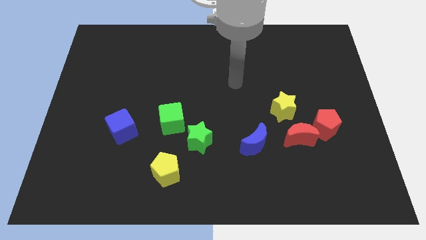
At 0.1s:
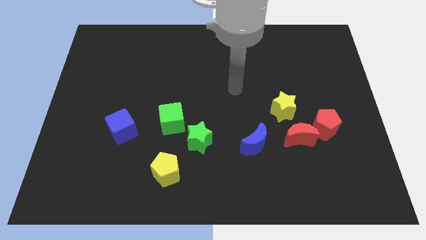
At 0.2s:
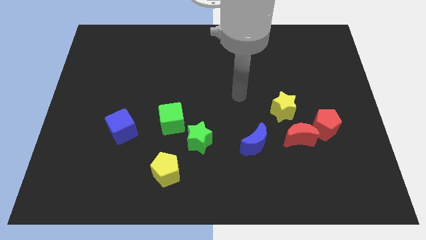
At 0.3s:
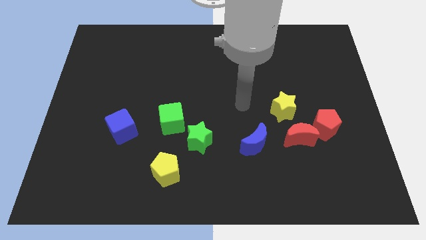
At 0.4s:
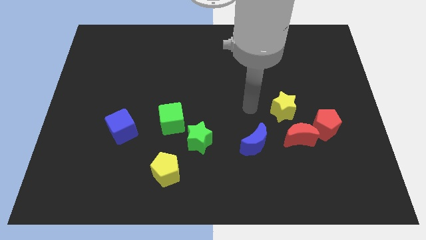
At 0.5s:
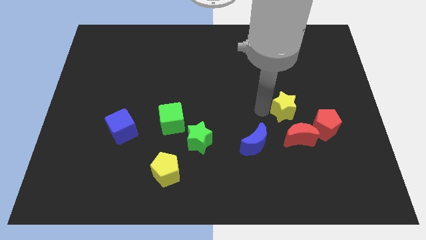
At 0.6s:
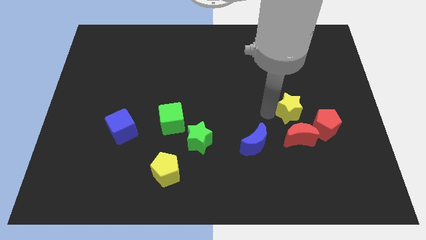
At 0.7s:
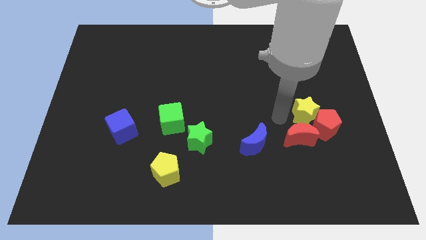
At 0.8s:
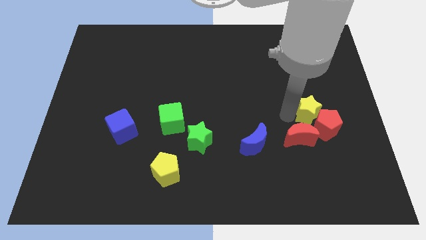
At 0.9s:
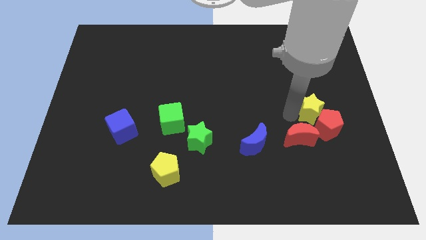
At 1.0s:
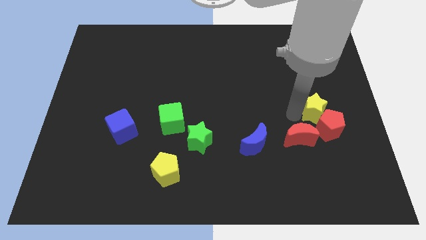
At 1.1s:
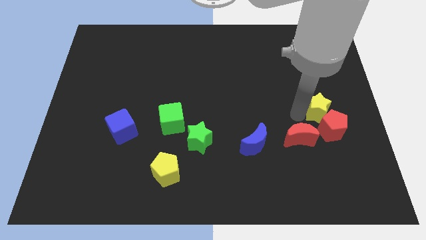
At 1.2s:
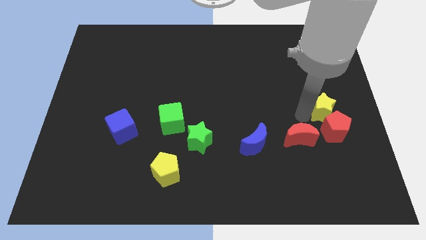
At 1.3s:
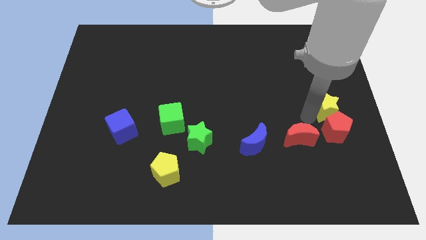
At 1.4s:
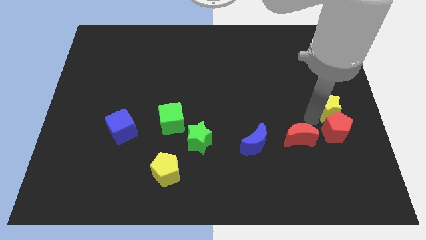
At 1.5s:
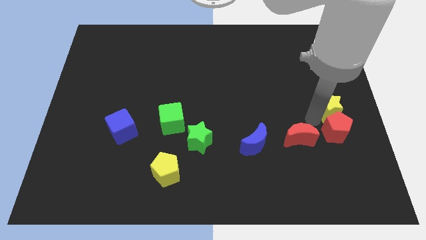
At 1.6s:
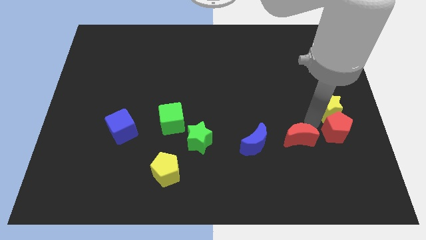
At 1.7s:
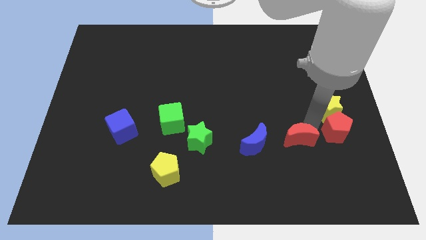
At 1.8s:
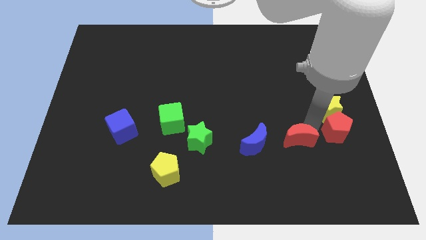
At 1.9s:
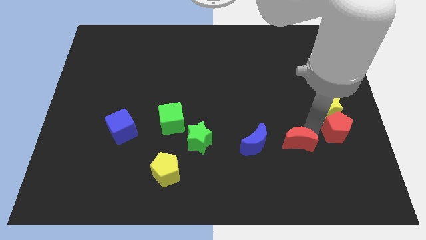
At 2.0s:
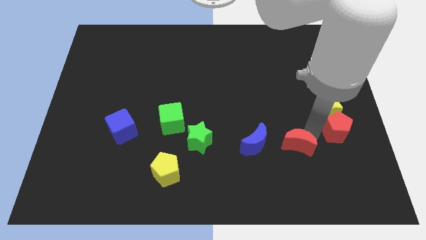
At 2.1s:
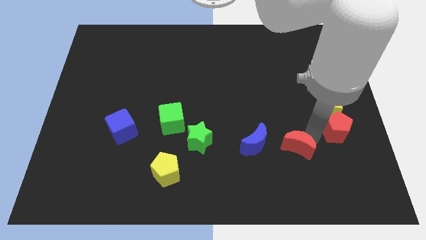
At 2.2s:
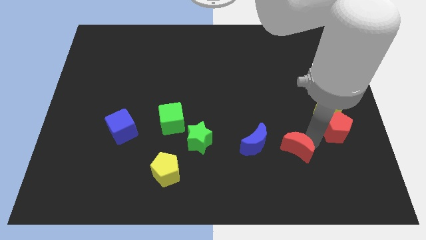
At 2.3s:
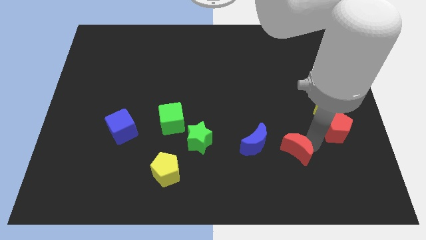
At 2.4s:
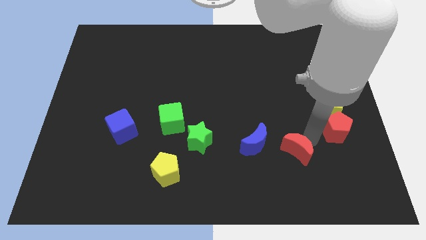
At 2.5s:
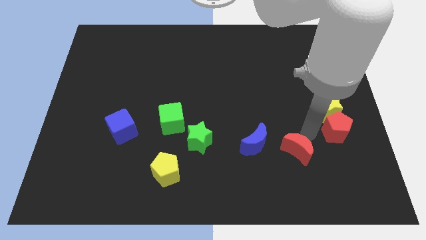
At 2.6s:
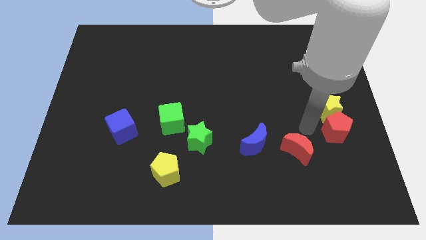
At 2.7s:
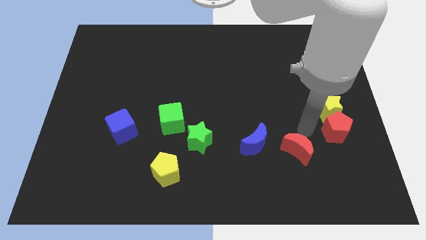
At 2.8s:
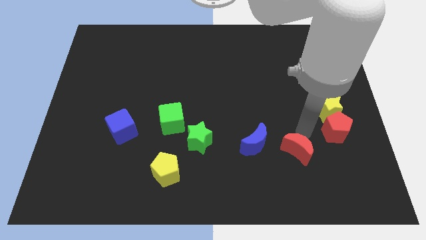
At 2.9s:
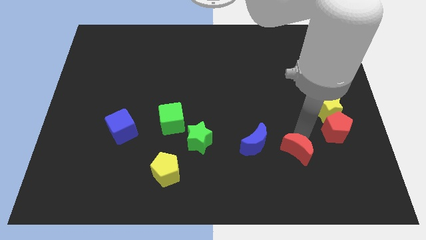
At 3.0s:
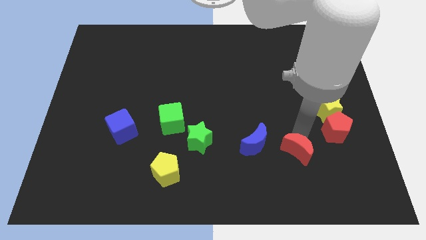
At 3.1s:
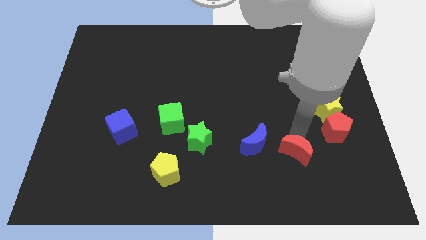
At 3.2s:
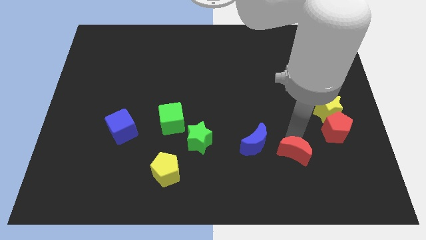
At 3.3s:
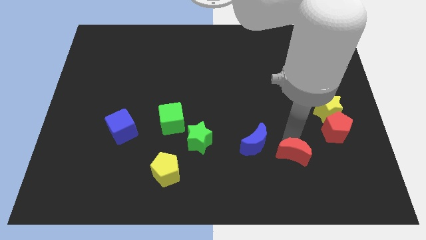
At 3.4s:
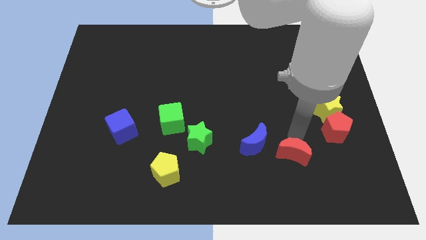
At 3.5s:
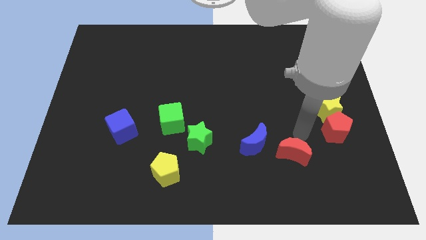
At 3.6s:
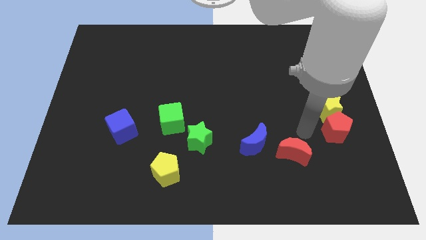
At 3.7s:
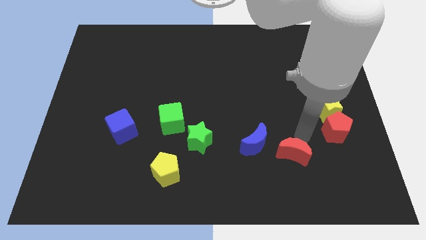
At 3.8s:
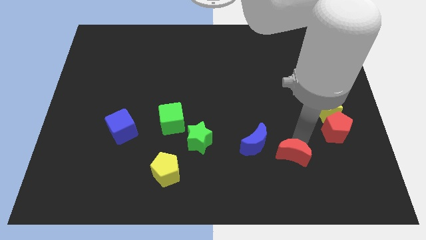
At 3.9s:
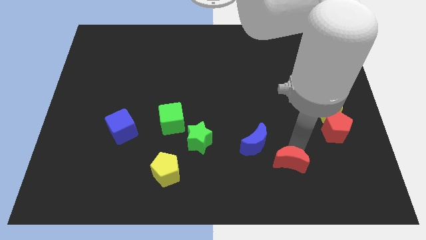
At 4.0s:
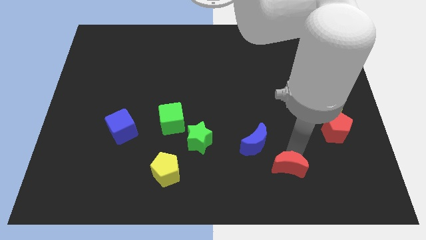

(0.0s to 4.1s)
separate the red moon from the red pentagon, yellow star, and blue moon

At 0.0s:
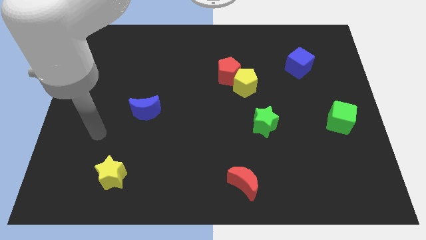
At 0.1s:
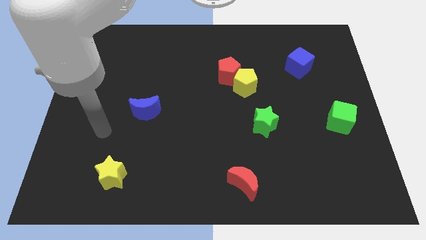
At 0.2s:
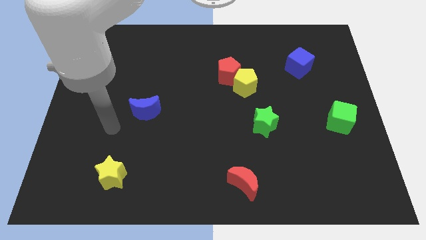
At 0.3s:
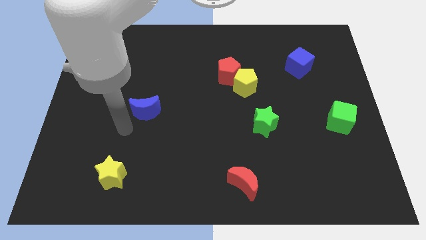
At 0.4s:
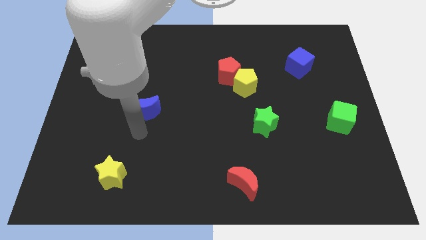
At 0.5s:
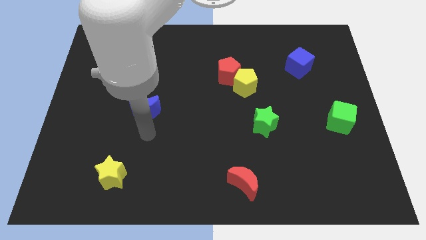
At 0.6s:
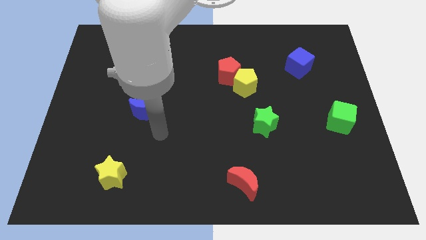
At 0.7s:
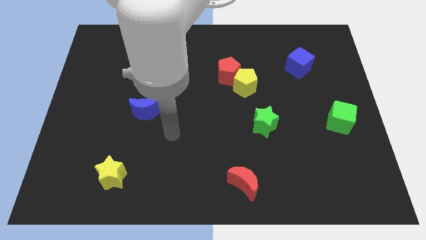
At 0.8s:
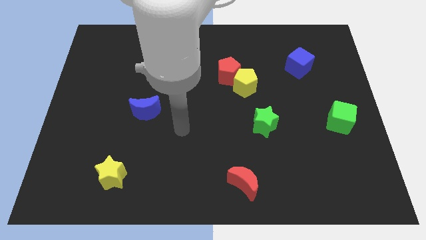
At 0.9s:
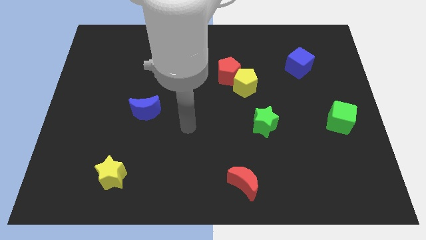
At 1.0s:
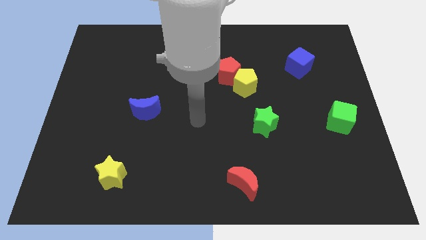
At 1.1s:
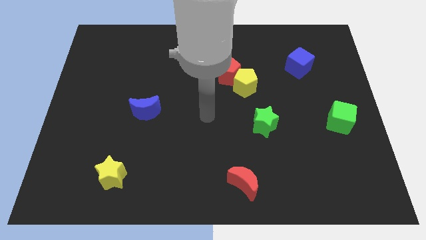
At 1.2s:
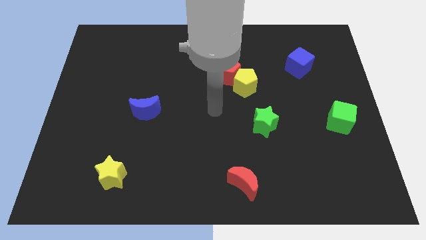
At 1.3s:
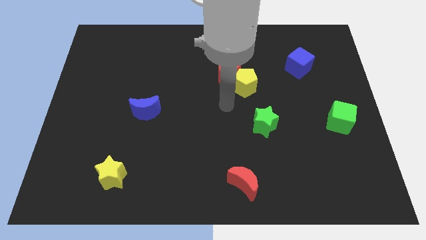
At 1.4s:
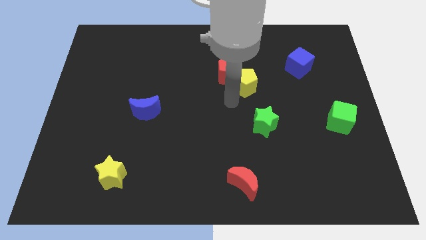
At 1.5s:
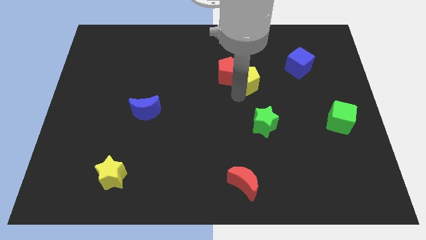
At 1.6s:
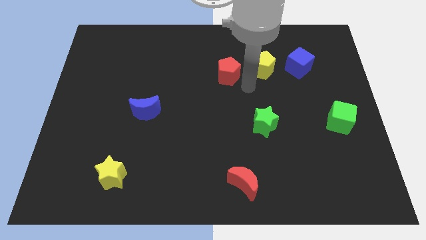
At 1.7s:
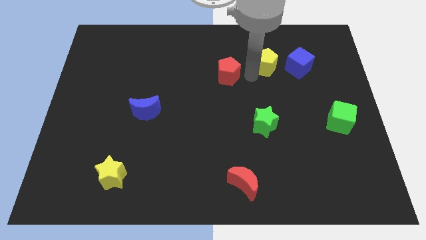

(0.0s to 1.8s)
pull the red pentagon apart from the yellow pentagon

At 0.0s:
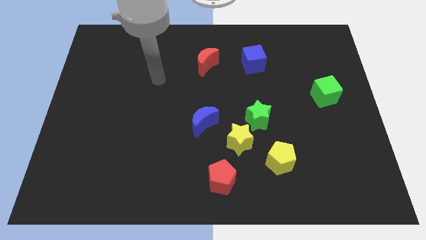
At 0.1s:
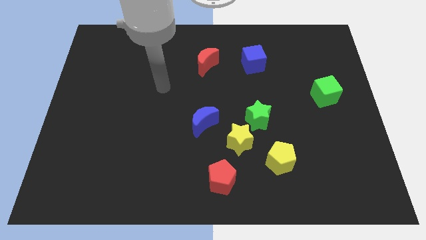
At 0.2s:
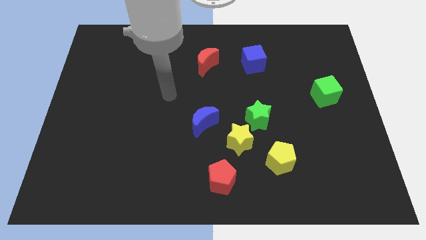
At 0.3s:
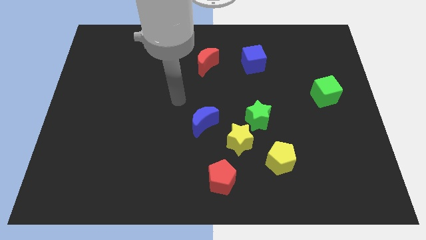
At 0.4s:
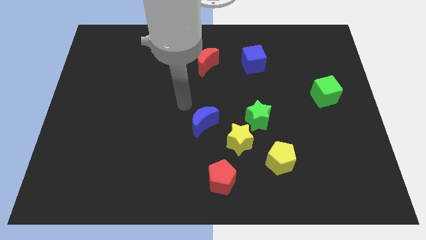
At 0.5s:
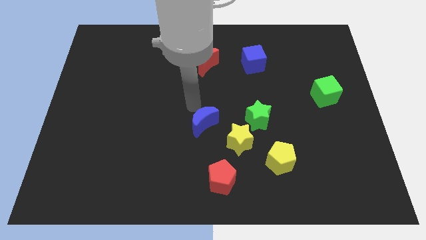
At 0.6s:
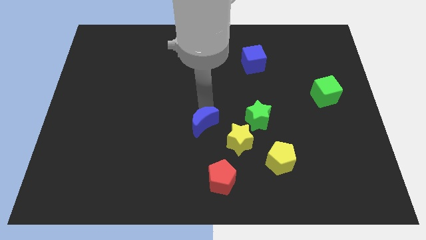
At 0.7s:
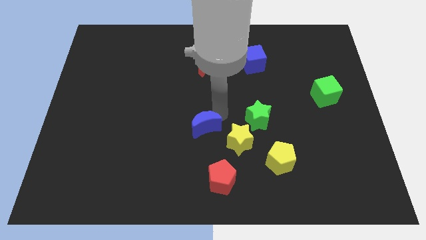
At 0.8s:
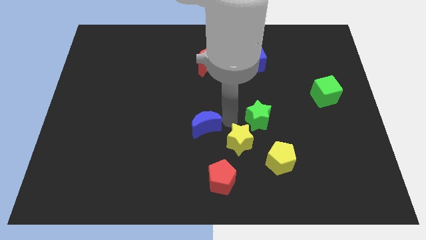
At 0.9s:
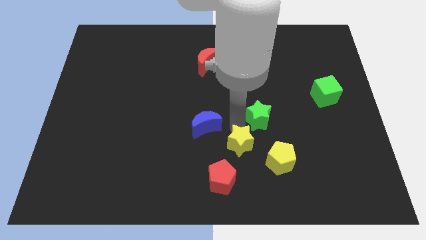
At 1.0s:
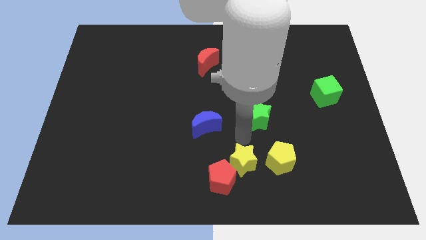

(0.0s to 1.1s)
separate the green star from the yellow star

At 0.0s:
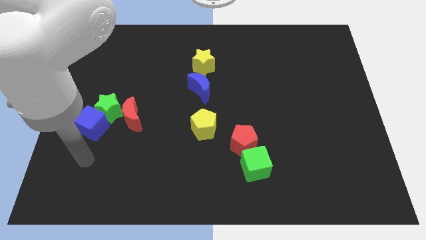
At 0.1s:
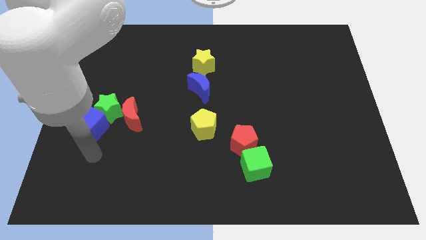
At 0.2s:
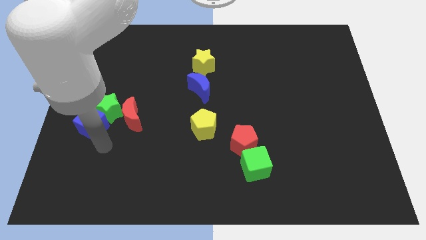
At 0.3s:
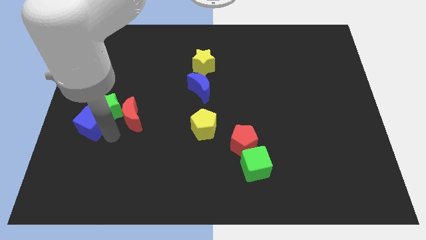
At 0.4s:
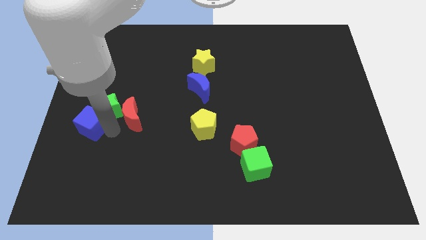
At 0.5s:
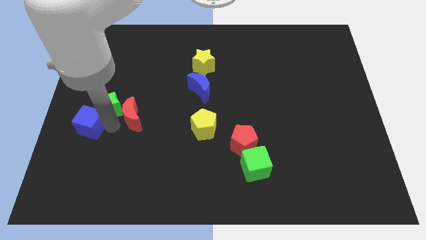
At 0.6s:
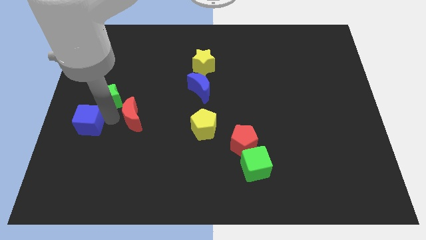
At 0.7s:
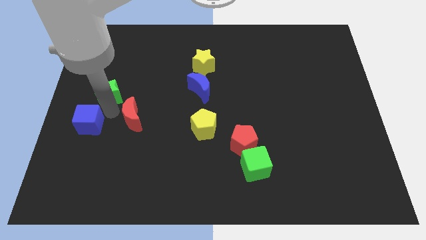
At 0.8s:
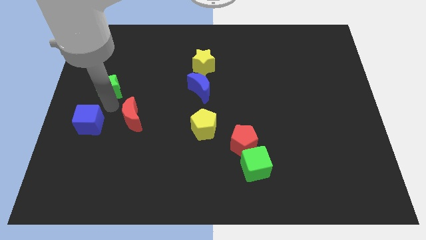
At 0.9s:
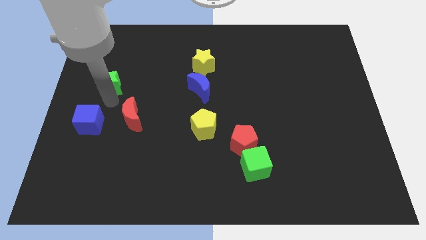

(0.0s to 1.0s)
pull the green star apart from the blue cube and red moon

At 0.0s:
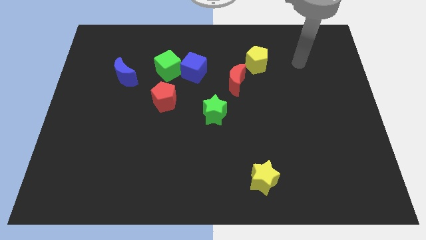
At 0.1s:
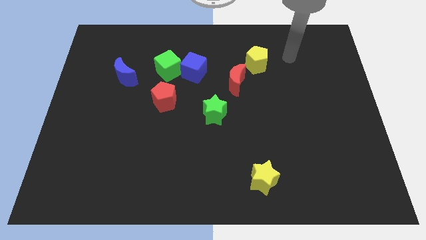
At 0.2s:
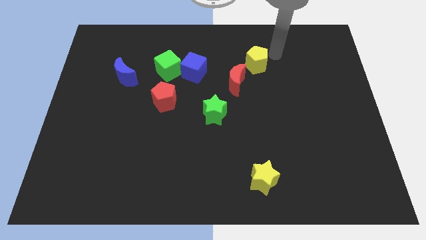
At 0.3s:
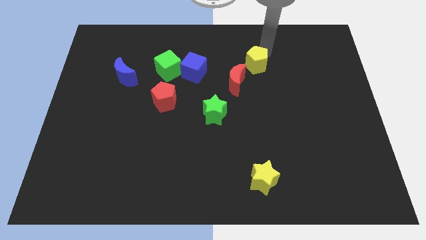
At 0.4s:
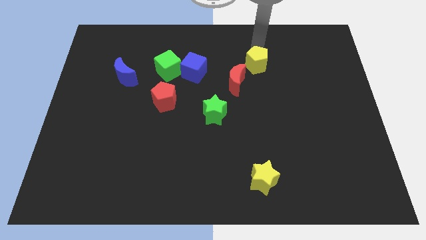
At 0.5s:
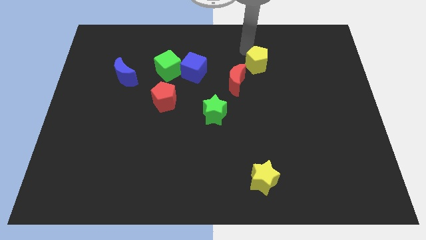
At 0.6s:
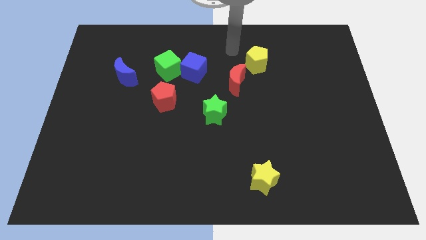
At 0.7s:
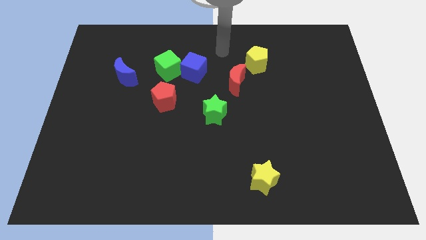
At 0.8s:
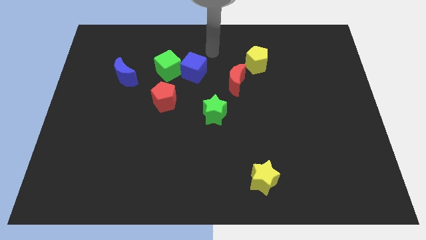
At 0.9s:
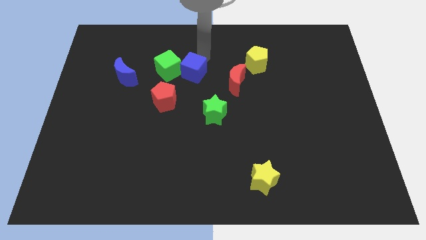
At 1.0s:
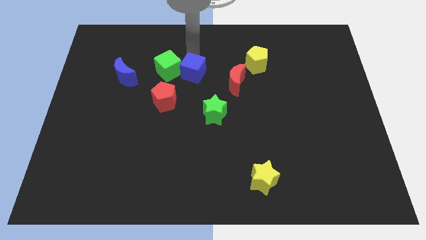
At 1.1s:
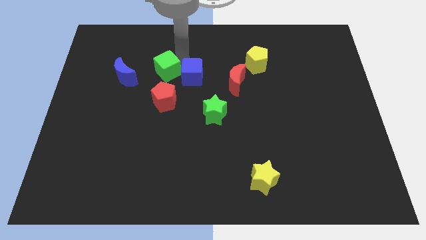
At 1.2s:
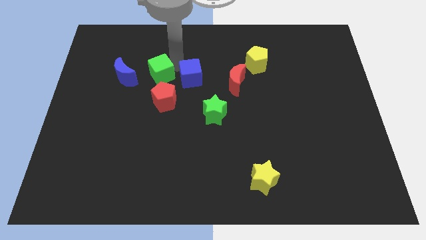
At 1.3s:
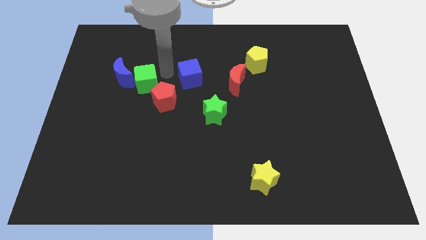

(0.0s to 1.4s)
move the blue cube away from the green cube
